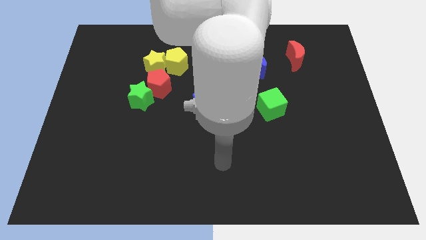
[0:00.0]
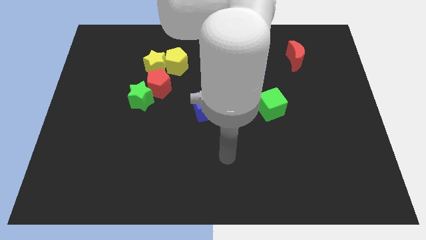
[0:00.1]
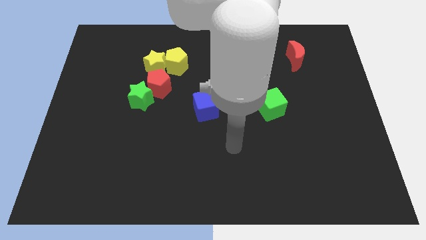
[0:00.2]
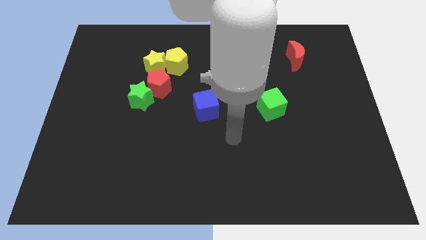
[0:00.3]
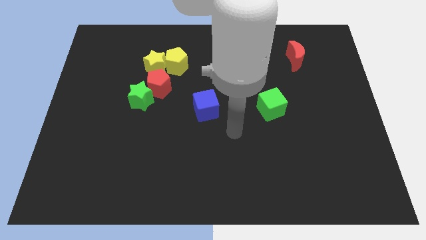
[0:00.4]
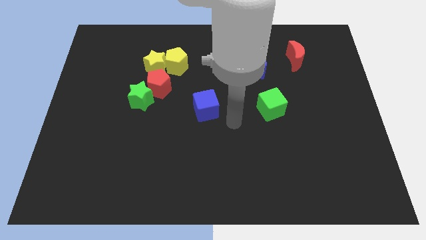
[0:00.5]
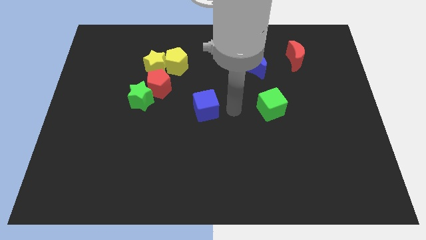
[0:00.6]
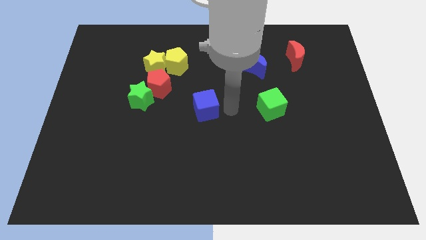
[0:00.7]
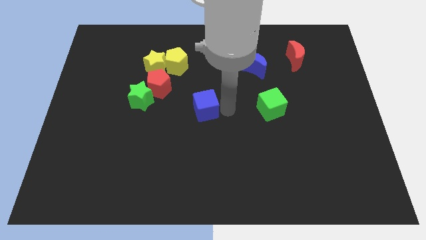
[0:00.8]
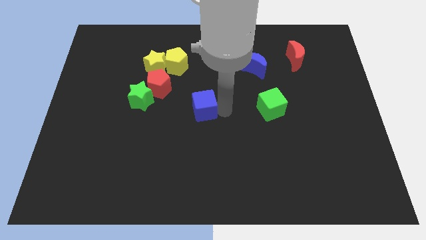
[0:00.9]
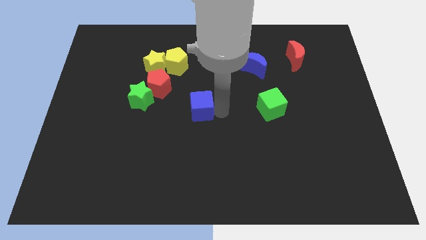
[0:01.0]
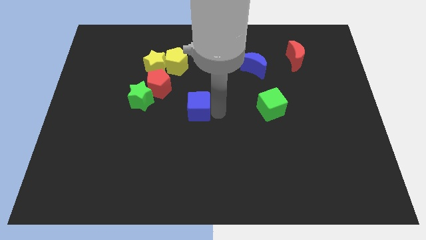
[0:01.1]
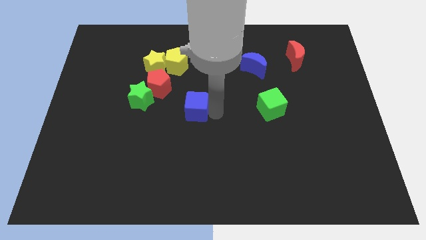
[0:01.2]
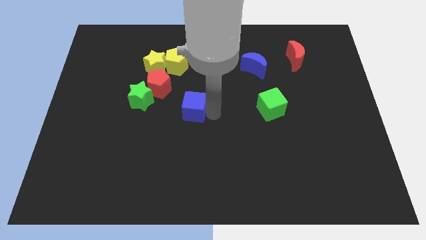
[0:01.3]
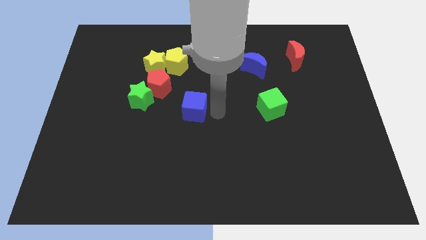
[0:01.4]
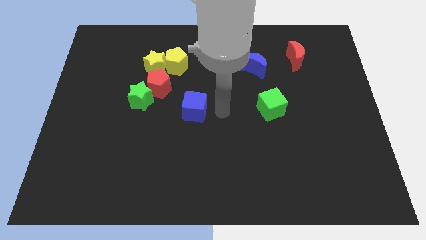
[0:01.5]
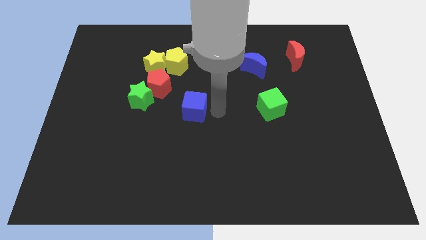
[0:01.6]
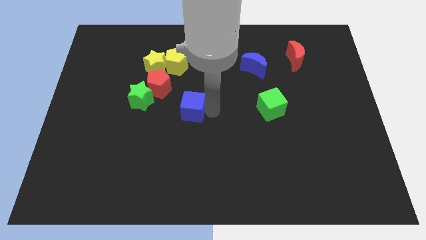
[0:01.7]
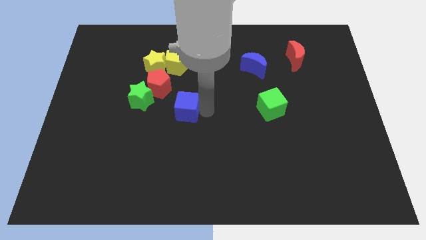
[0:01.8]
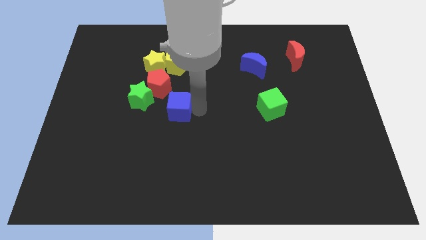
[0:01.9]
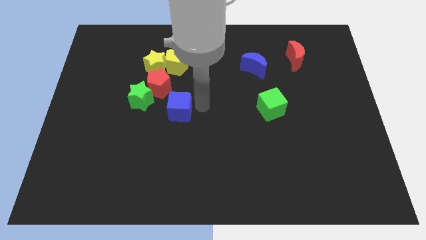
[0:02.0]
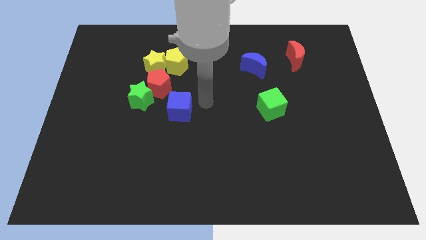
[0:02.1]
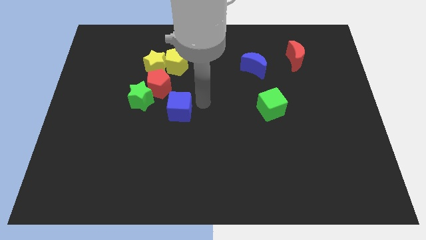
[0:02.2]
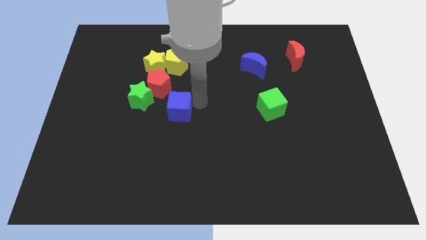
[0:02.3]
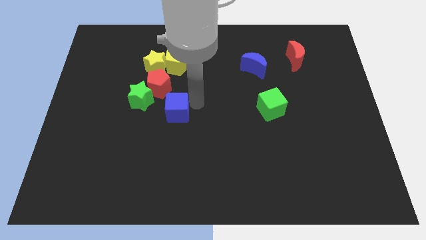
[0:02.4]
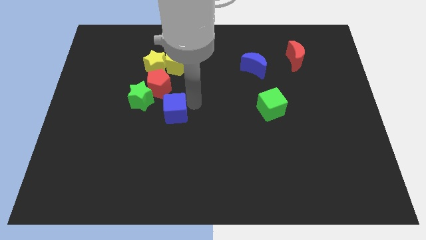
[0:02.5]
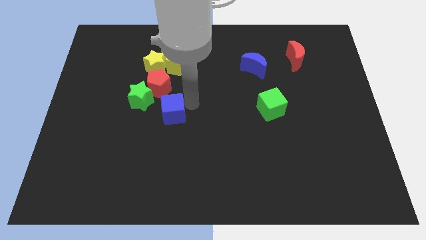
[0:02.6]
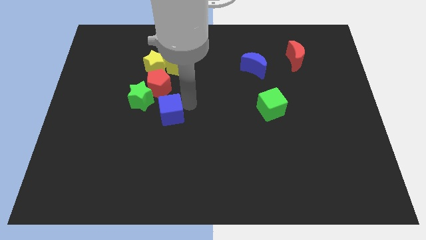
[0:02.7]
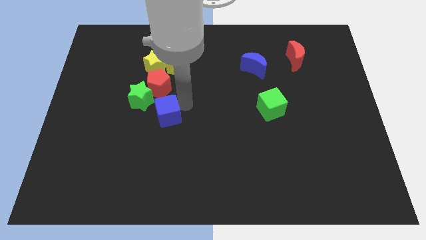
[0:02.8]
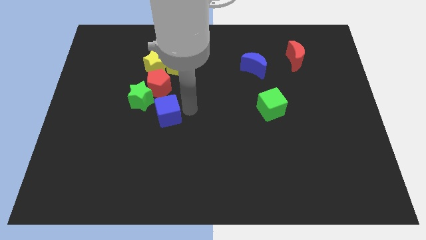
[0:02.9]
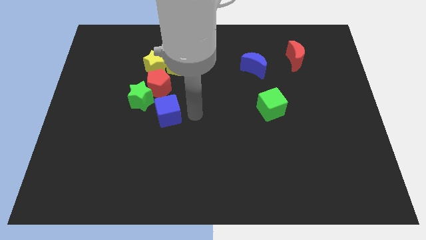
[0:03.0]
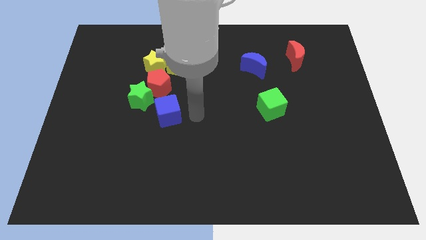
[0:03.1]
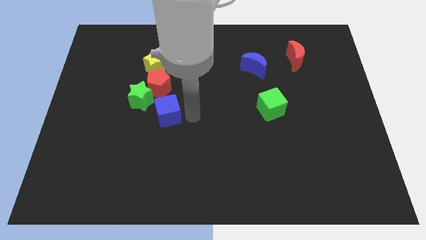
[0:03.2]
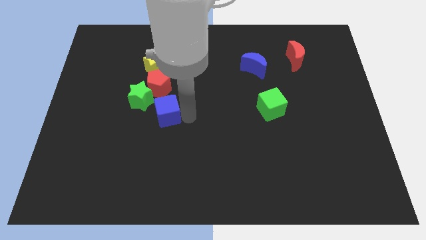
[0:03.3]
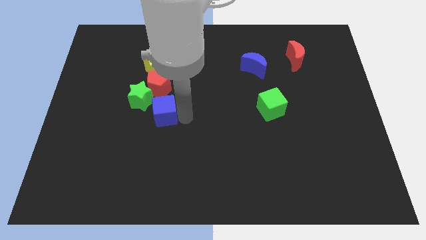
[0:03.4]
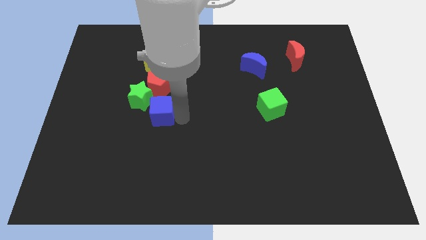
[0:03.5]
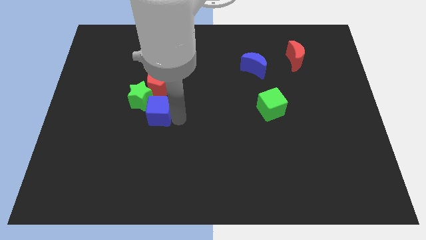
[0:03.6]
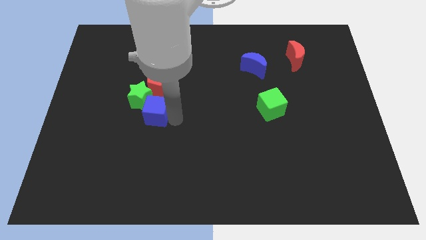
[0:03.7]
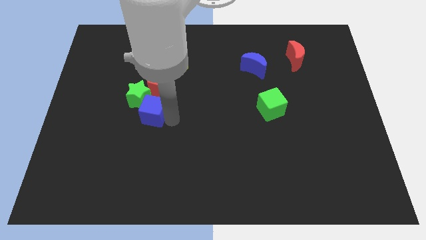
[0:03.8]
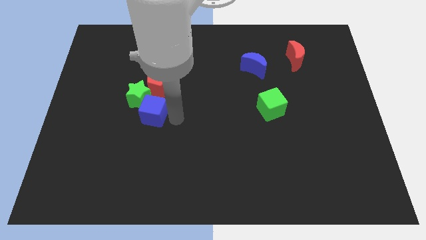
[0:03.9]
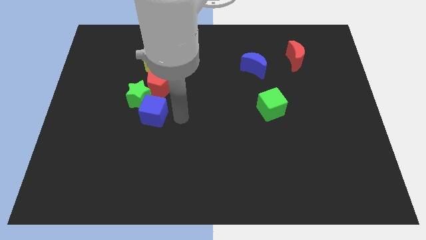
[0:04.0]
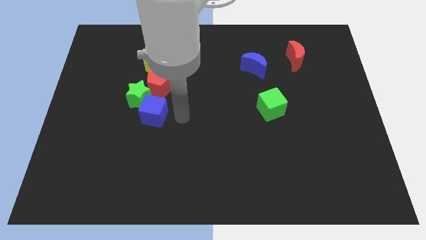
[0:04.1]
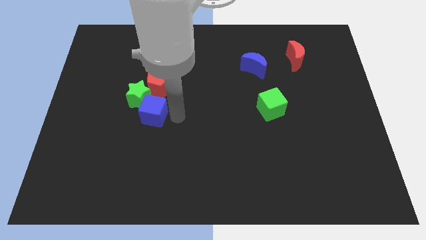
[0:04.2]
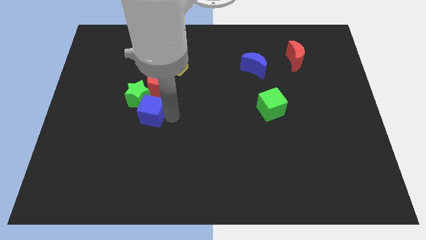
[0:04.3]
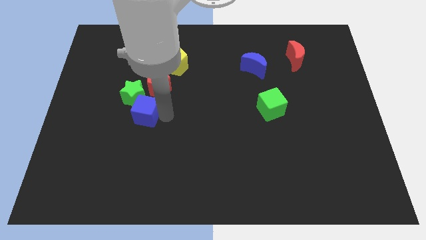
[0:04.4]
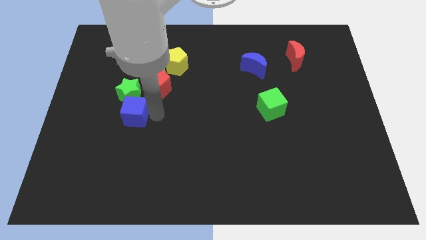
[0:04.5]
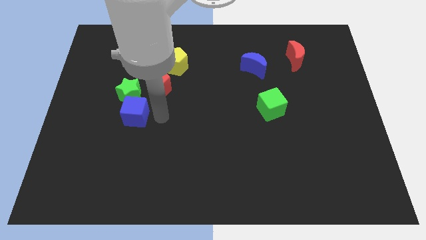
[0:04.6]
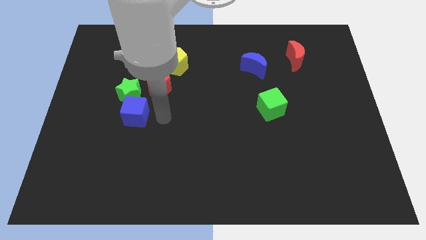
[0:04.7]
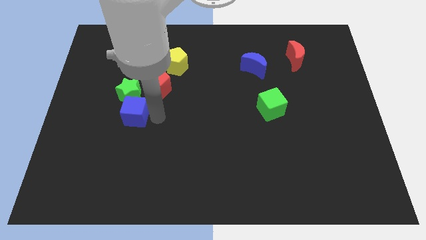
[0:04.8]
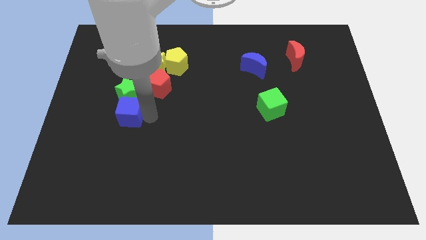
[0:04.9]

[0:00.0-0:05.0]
put the blue cube to the bottom left of the green star

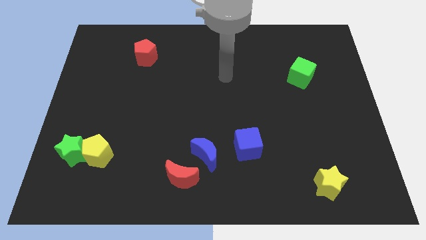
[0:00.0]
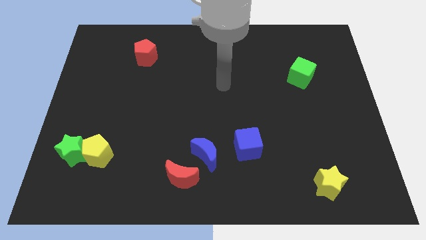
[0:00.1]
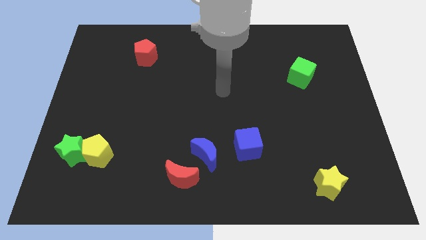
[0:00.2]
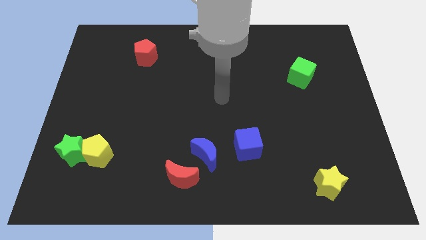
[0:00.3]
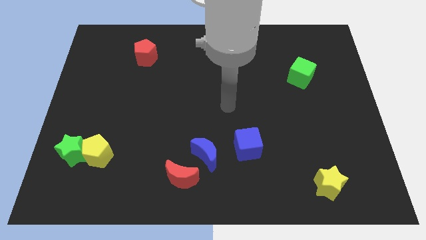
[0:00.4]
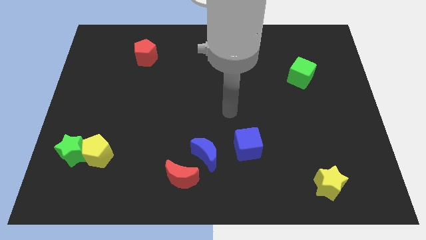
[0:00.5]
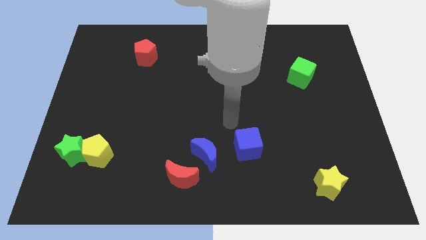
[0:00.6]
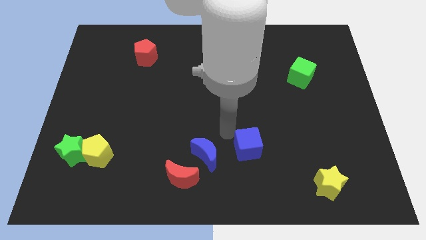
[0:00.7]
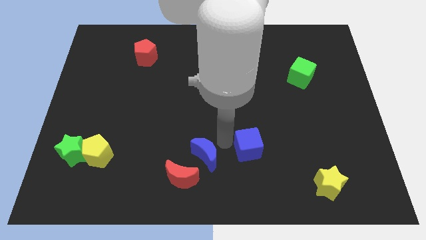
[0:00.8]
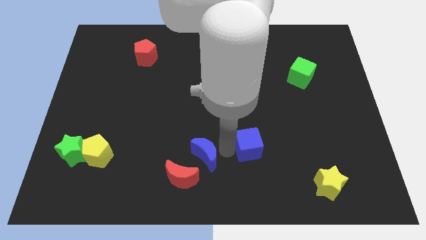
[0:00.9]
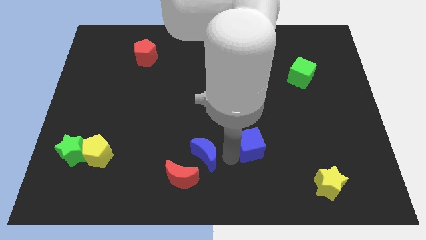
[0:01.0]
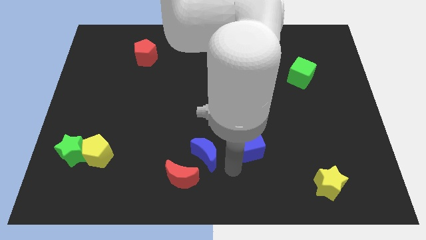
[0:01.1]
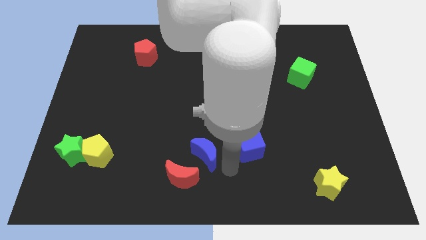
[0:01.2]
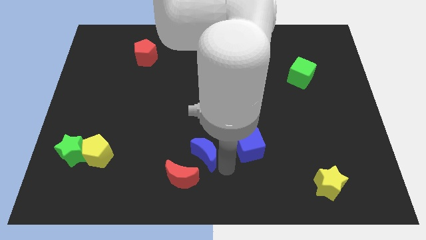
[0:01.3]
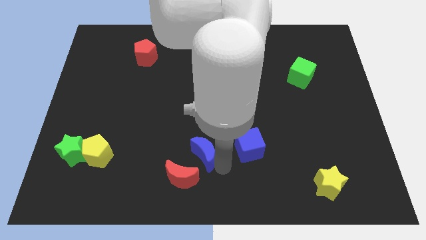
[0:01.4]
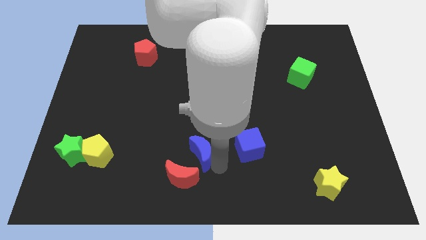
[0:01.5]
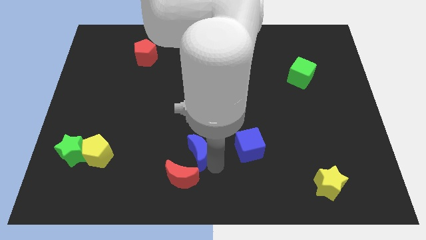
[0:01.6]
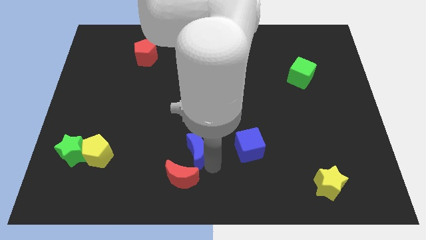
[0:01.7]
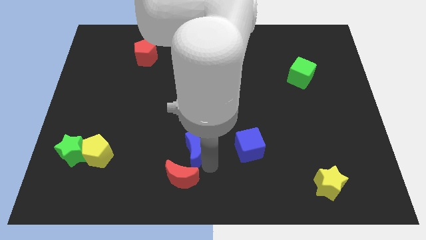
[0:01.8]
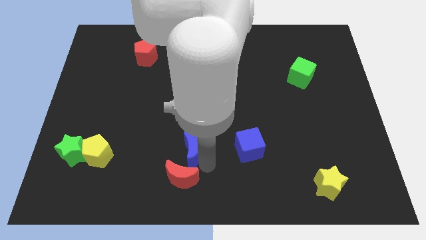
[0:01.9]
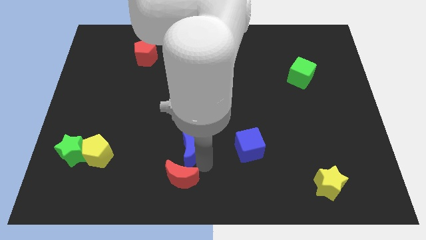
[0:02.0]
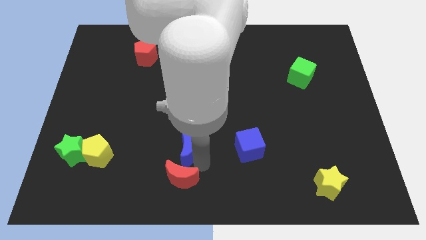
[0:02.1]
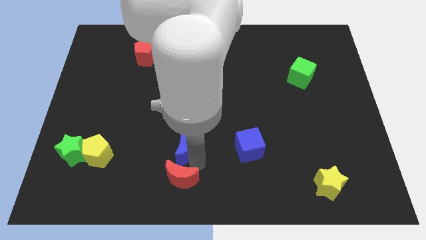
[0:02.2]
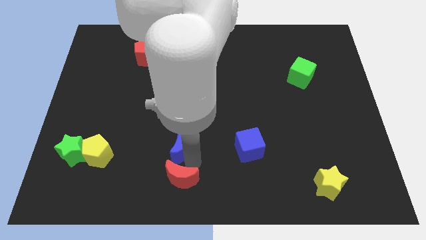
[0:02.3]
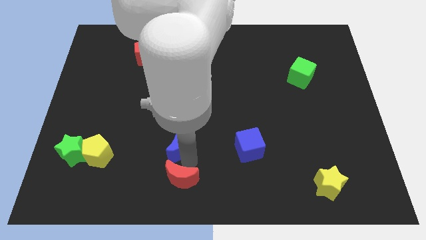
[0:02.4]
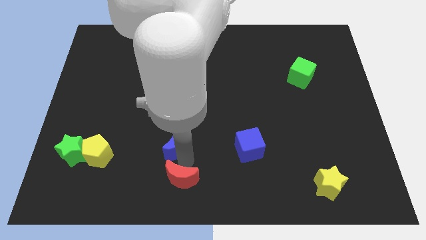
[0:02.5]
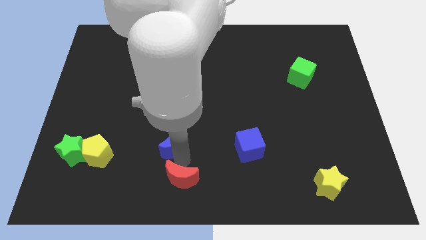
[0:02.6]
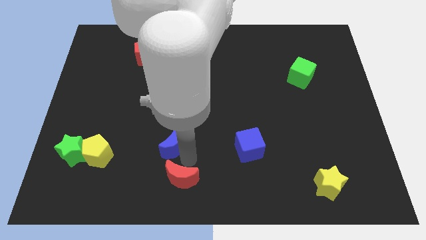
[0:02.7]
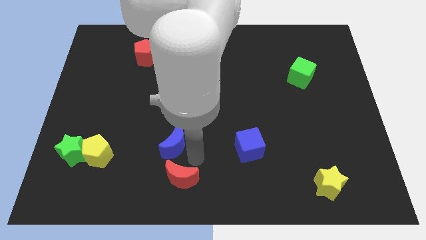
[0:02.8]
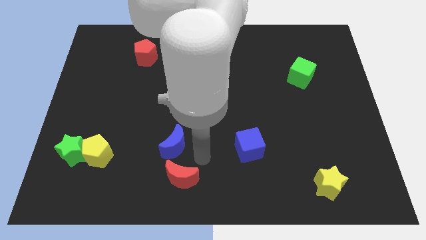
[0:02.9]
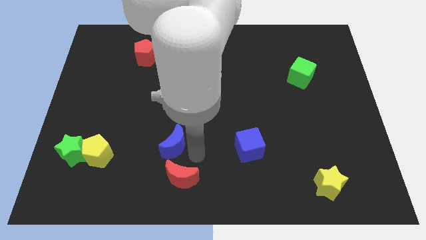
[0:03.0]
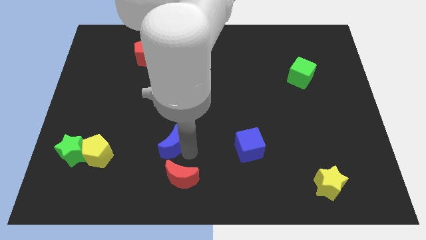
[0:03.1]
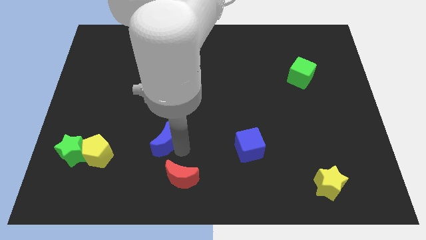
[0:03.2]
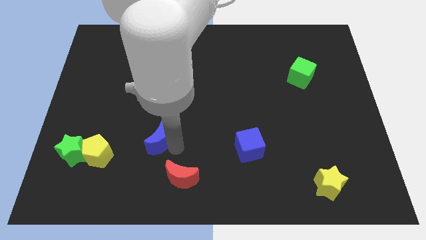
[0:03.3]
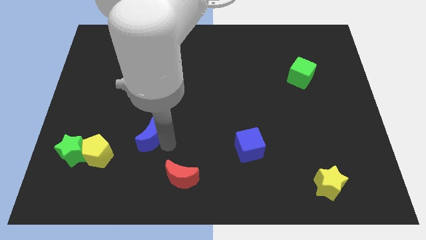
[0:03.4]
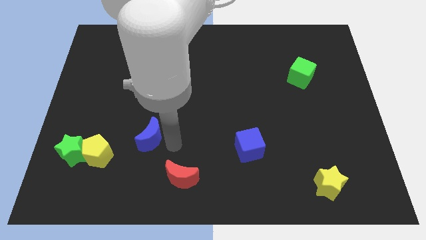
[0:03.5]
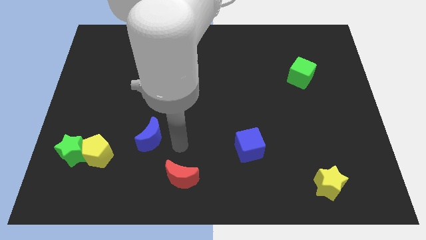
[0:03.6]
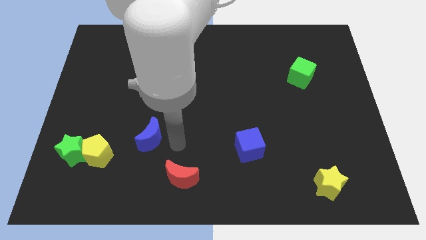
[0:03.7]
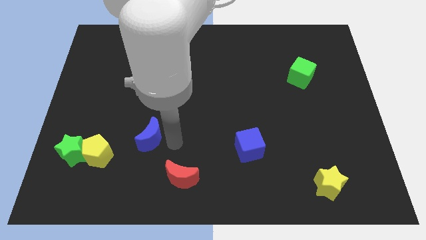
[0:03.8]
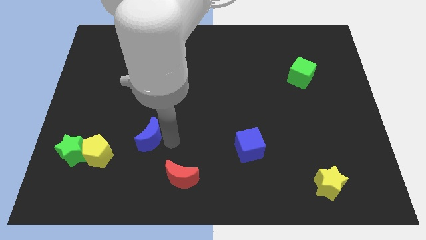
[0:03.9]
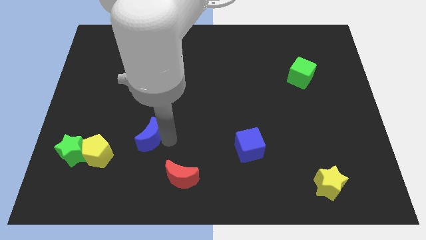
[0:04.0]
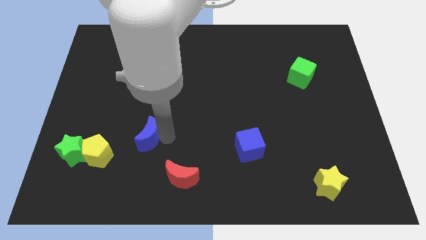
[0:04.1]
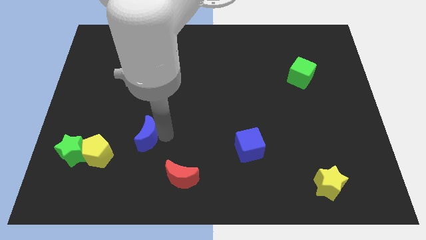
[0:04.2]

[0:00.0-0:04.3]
slide the blue moon to the top right side of the yellow pentagon
